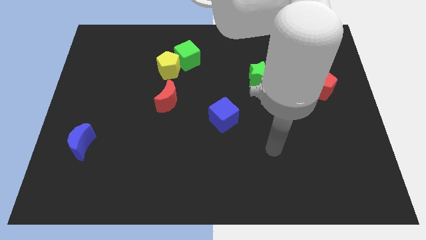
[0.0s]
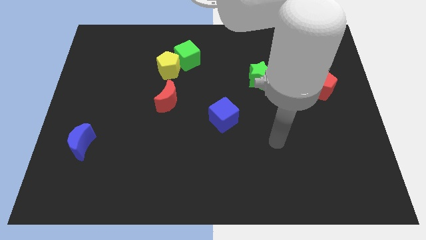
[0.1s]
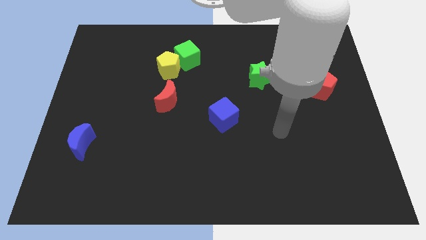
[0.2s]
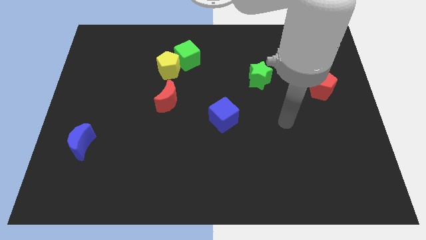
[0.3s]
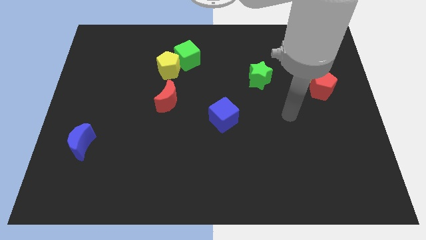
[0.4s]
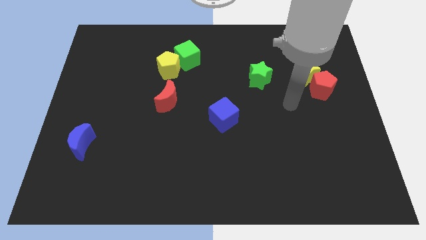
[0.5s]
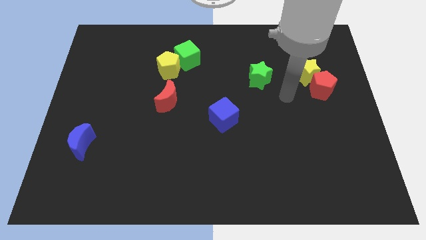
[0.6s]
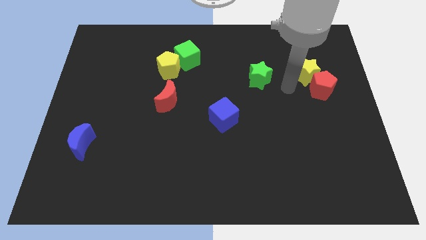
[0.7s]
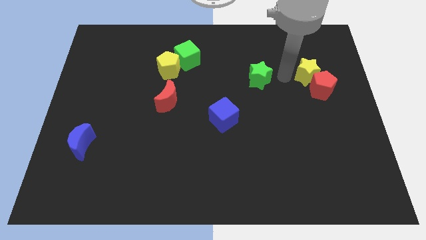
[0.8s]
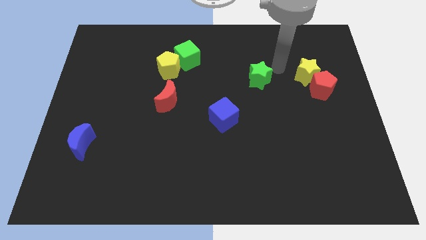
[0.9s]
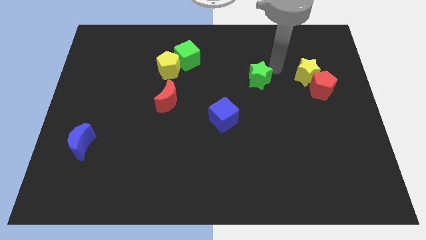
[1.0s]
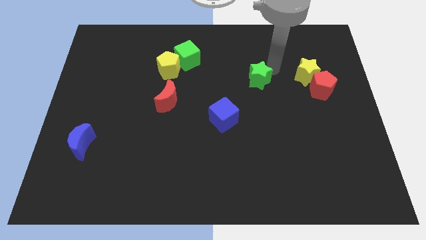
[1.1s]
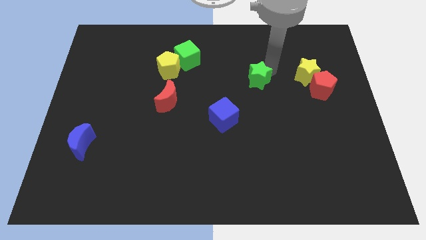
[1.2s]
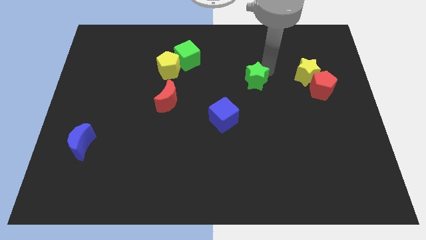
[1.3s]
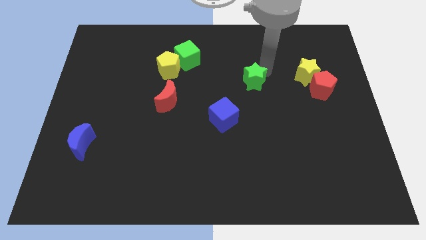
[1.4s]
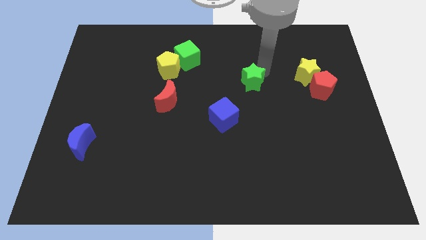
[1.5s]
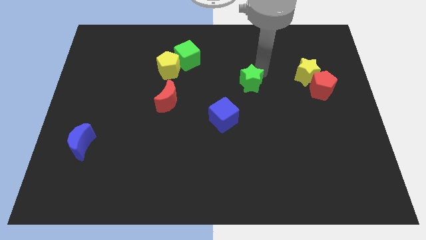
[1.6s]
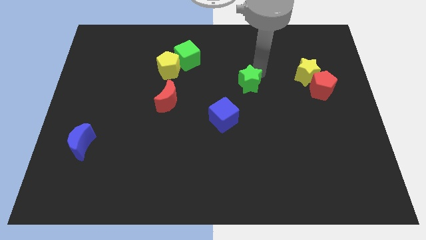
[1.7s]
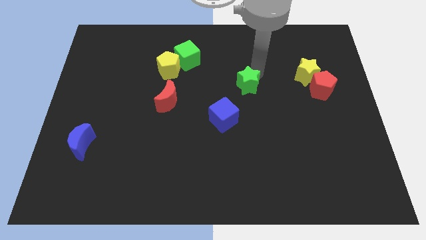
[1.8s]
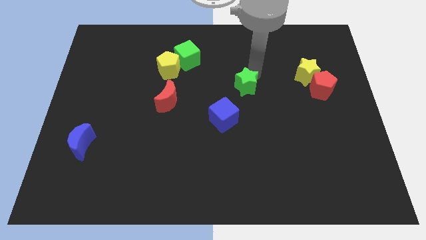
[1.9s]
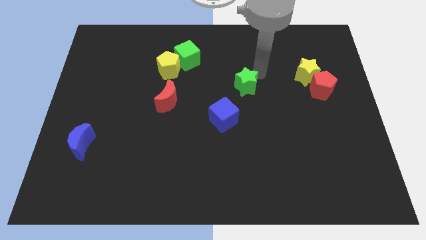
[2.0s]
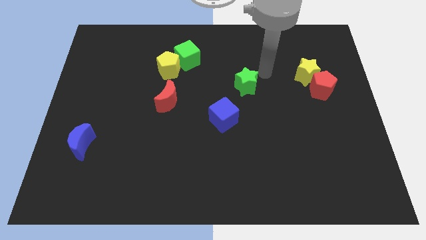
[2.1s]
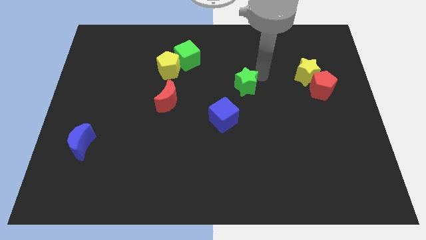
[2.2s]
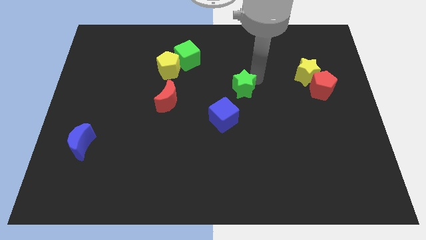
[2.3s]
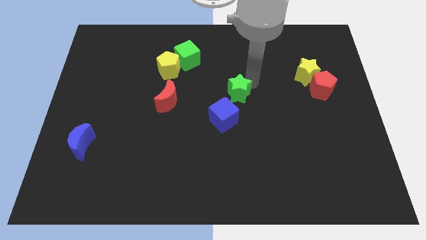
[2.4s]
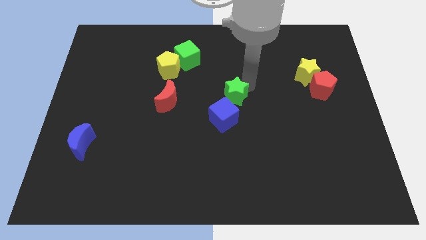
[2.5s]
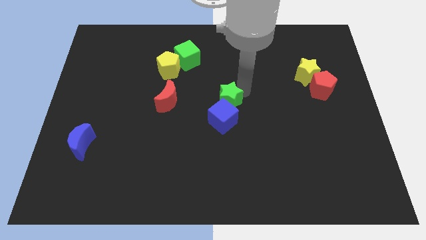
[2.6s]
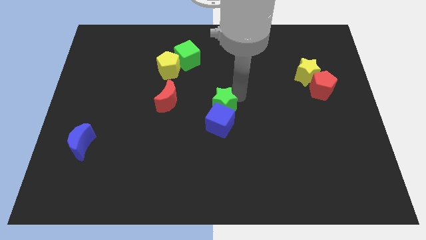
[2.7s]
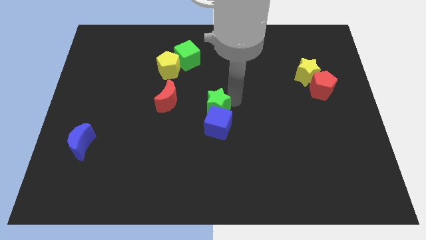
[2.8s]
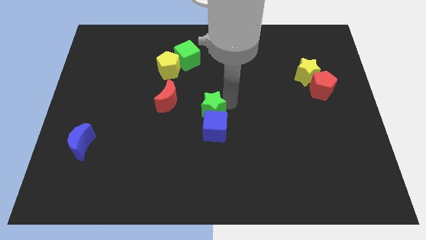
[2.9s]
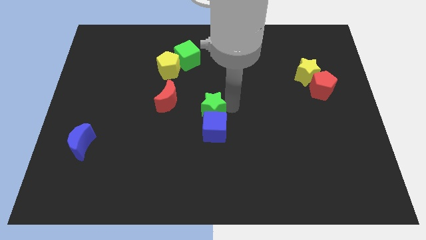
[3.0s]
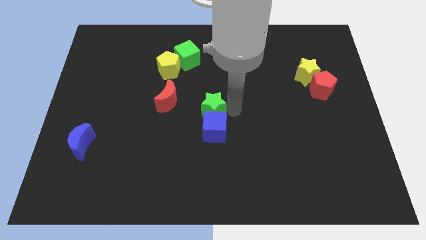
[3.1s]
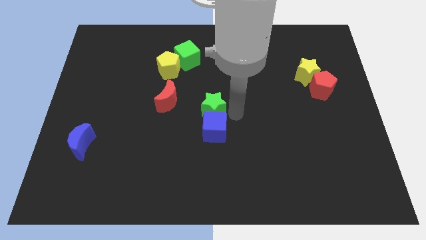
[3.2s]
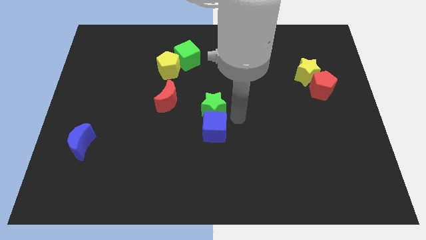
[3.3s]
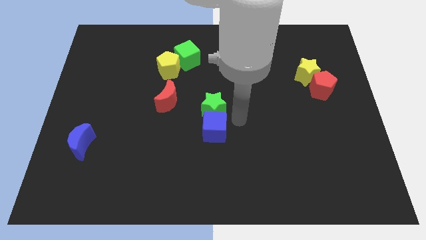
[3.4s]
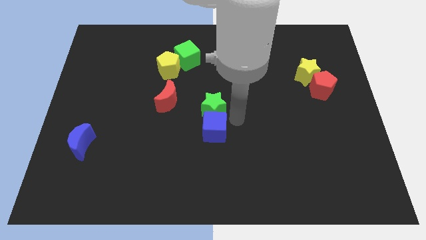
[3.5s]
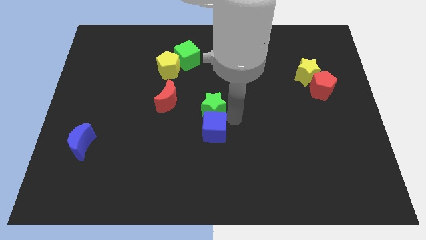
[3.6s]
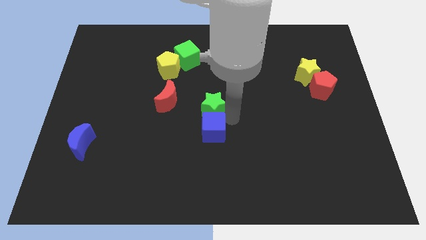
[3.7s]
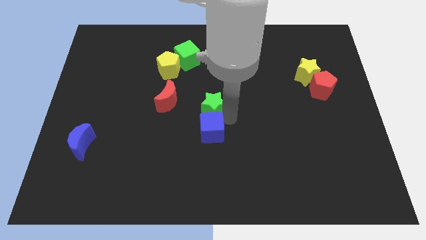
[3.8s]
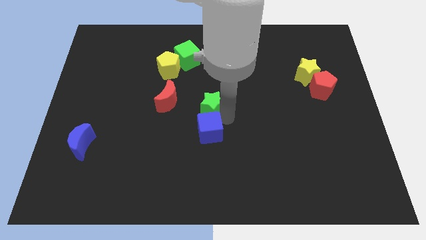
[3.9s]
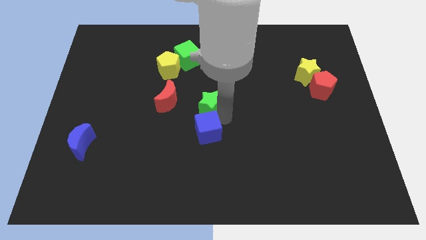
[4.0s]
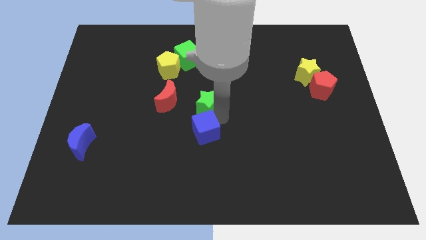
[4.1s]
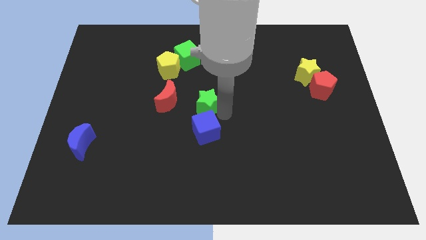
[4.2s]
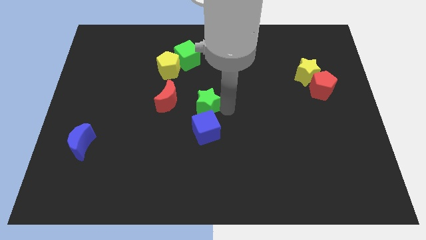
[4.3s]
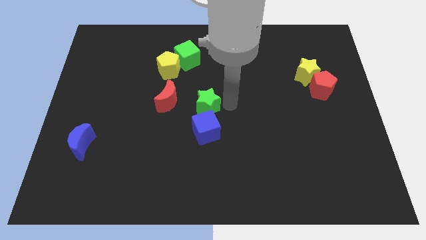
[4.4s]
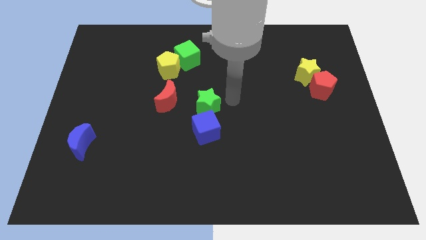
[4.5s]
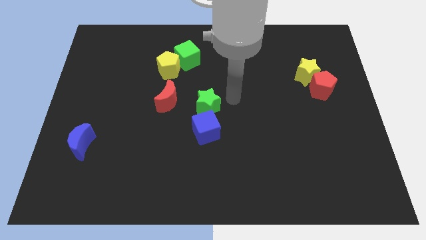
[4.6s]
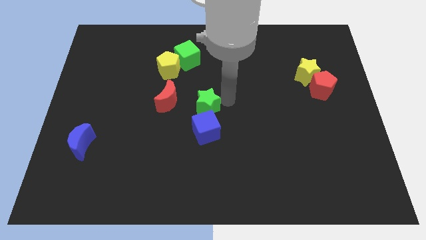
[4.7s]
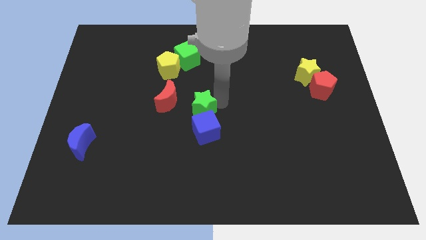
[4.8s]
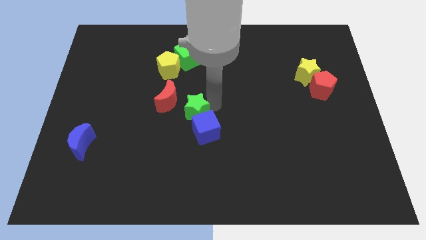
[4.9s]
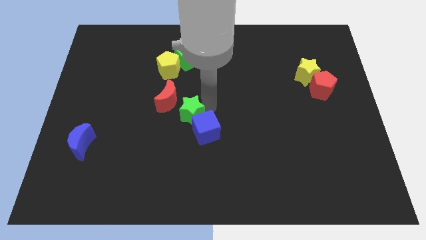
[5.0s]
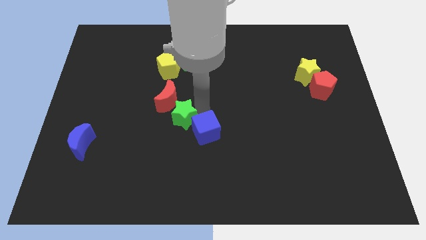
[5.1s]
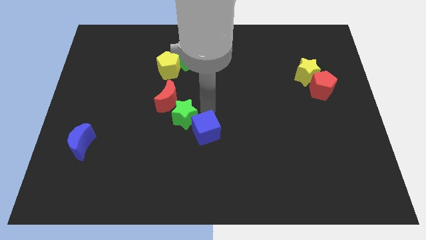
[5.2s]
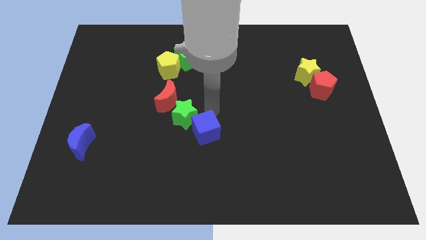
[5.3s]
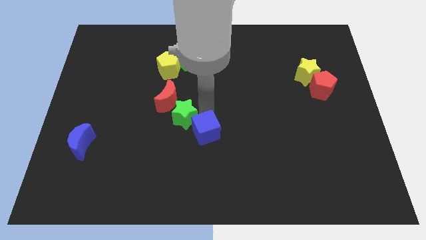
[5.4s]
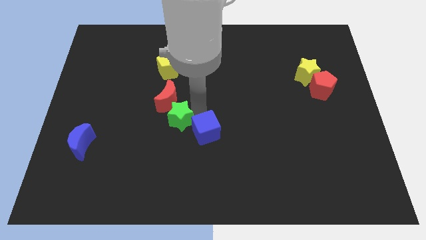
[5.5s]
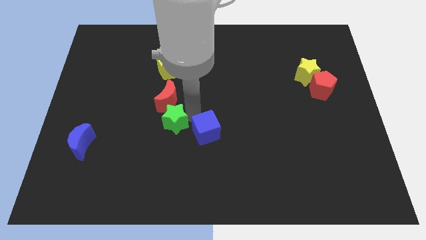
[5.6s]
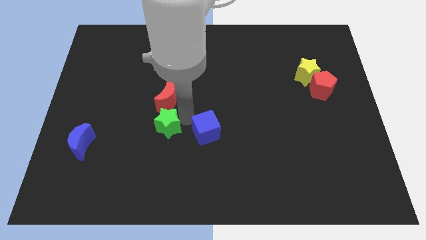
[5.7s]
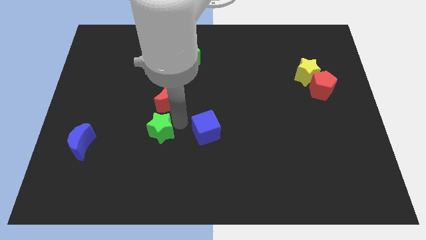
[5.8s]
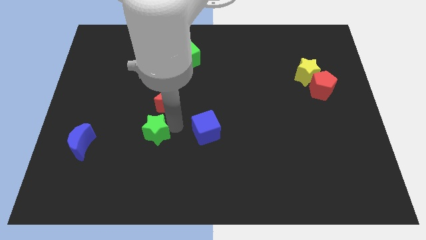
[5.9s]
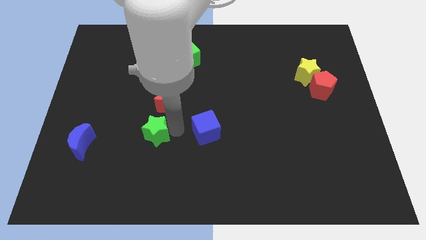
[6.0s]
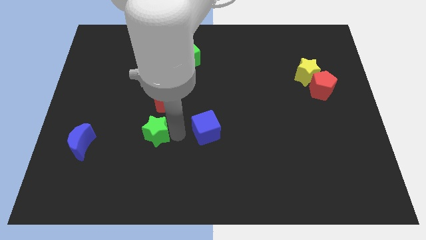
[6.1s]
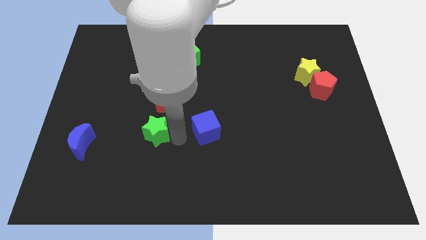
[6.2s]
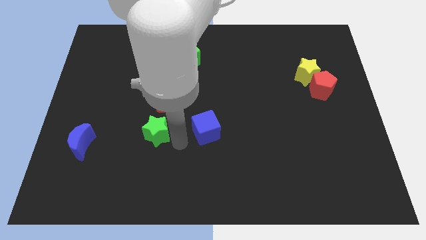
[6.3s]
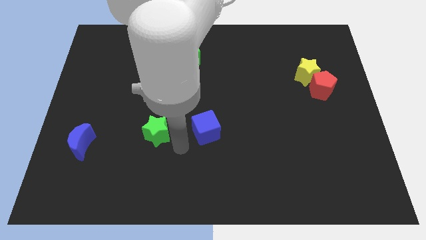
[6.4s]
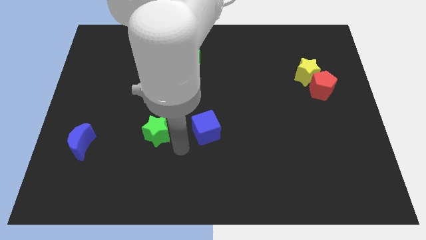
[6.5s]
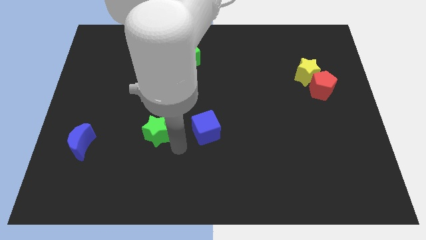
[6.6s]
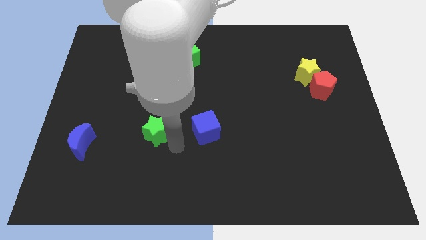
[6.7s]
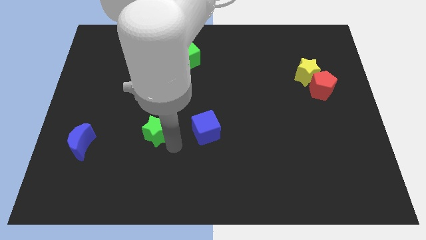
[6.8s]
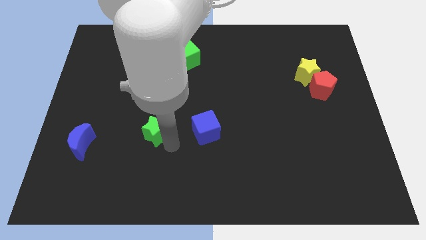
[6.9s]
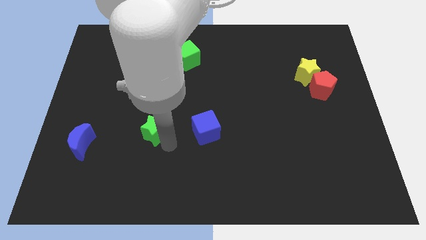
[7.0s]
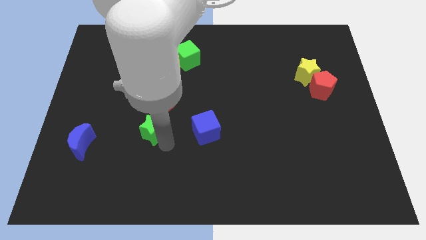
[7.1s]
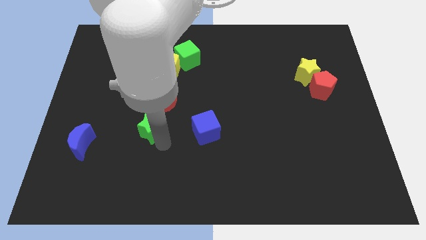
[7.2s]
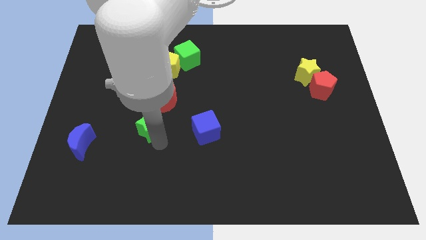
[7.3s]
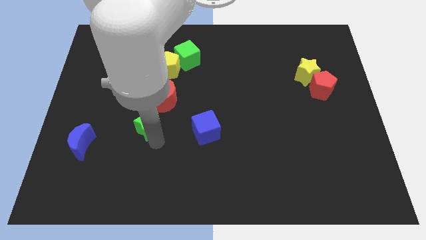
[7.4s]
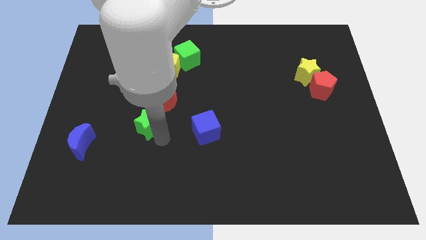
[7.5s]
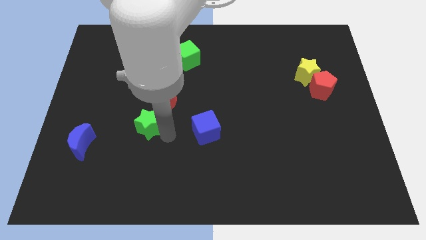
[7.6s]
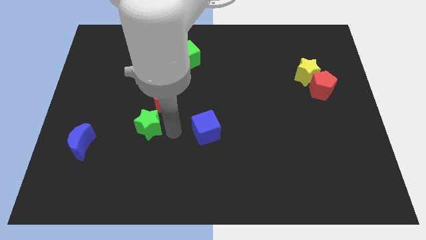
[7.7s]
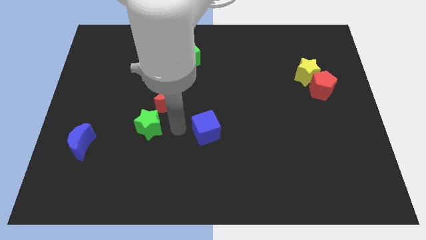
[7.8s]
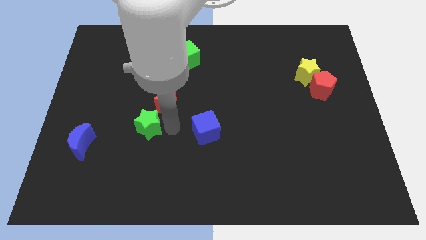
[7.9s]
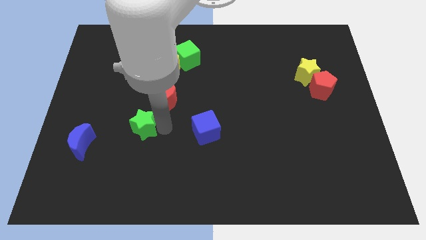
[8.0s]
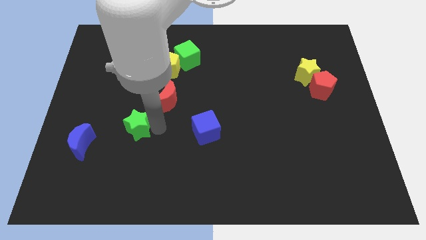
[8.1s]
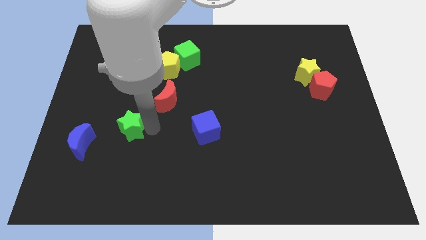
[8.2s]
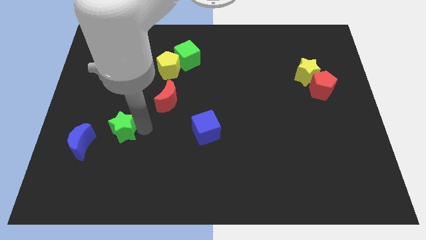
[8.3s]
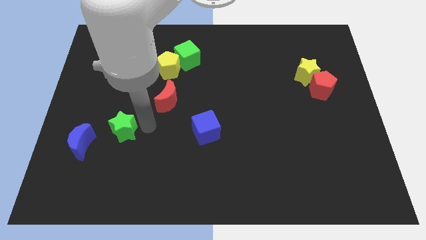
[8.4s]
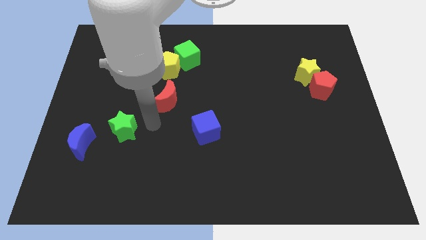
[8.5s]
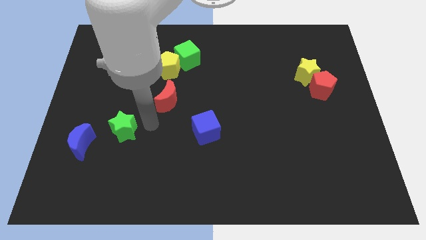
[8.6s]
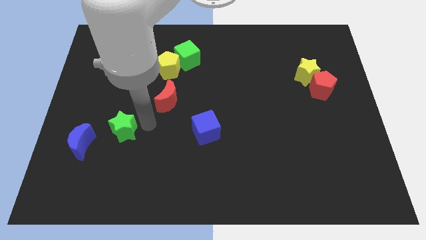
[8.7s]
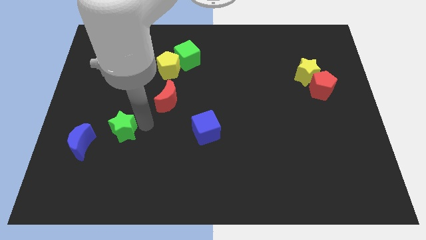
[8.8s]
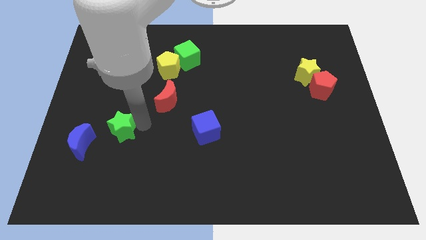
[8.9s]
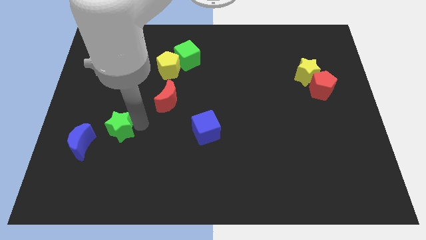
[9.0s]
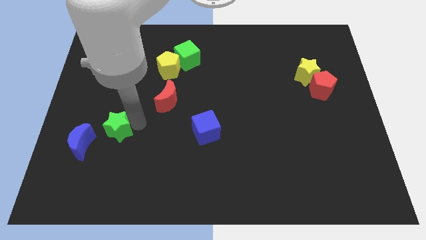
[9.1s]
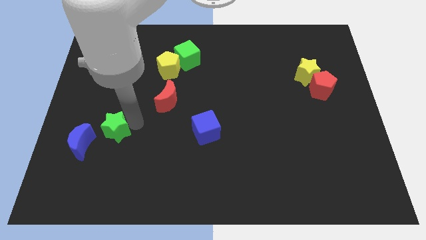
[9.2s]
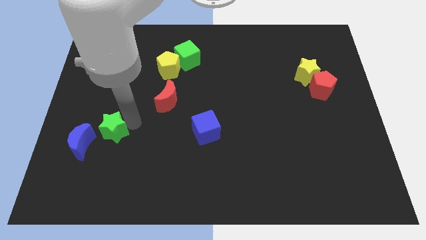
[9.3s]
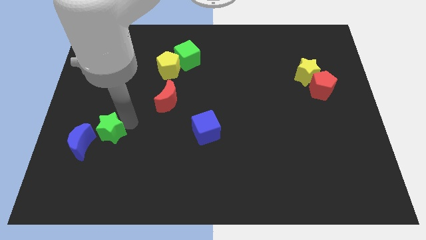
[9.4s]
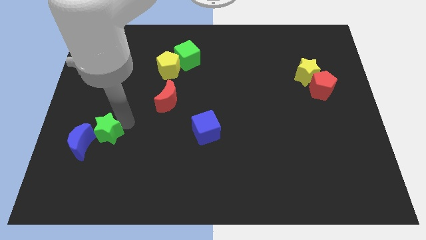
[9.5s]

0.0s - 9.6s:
move the green star close to the blue moon
